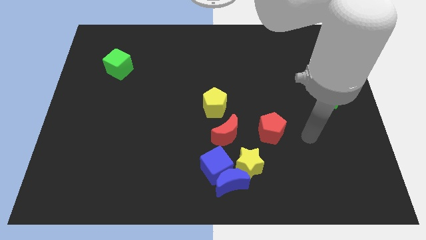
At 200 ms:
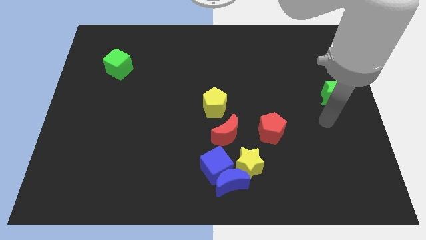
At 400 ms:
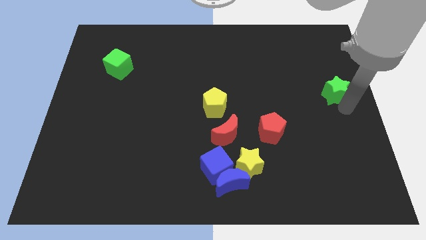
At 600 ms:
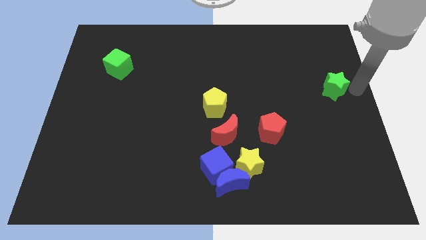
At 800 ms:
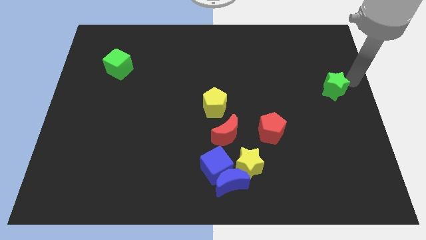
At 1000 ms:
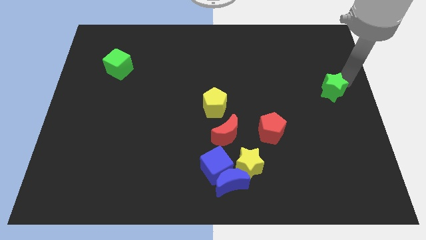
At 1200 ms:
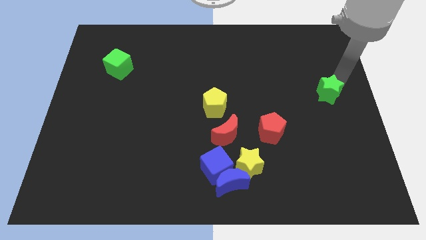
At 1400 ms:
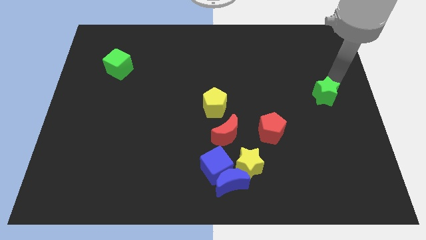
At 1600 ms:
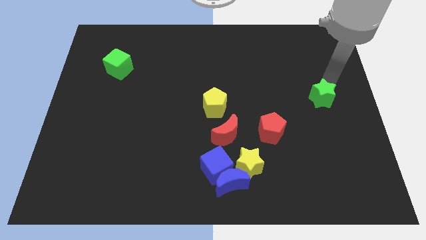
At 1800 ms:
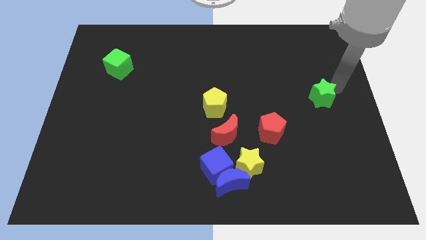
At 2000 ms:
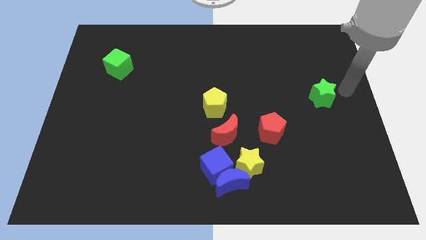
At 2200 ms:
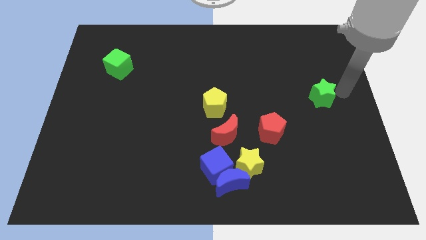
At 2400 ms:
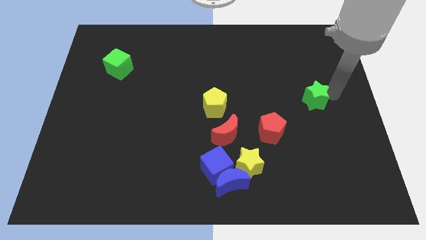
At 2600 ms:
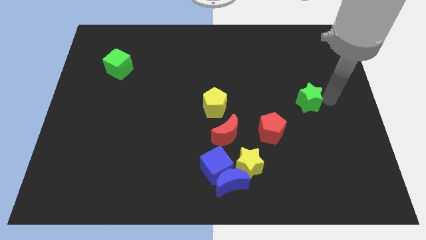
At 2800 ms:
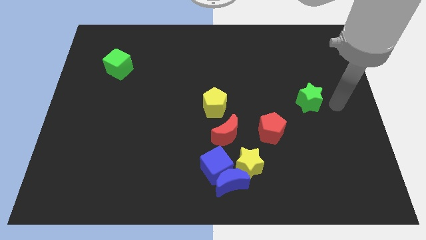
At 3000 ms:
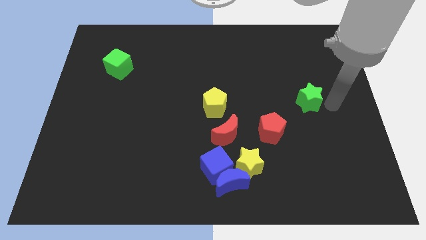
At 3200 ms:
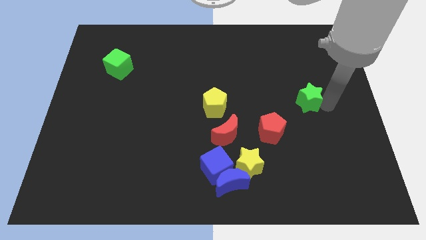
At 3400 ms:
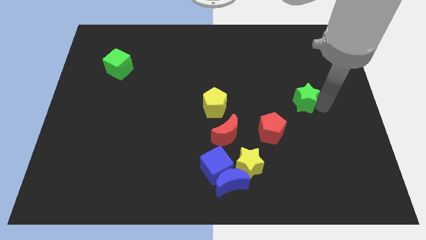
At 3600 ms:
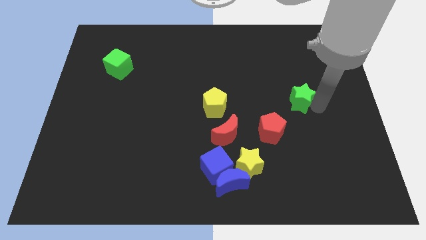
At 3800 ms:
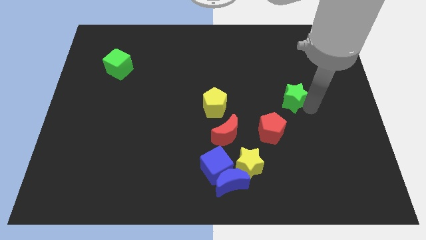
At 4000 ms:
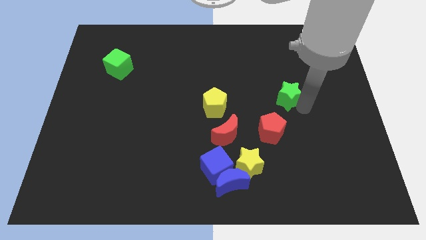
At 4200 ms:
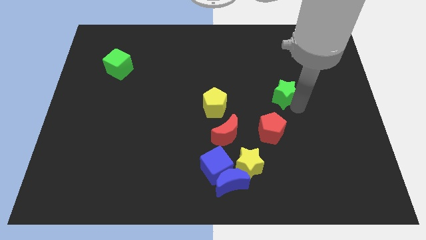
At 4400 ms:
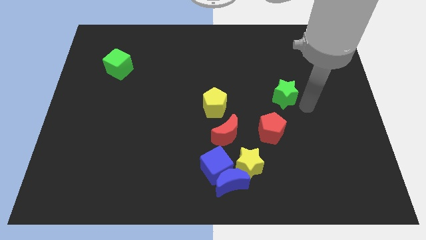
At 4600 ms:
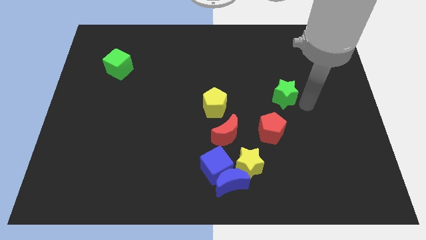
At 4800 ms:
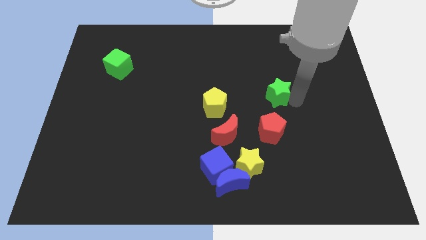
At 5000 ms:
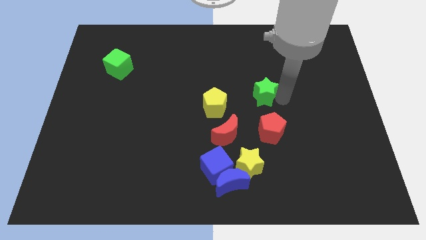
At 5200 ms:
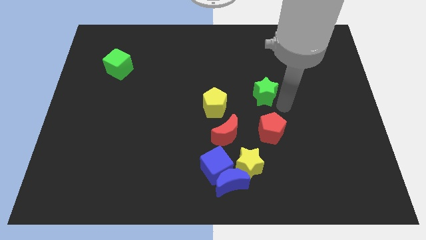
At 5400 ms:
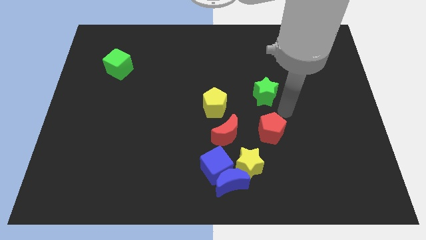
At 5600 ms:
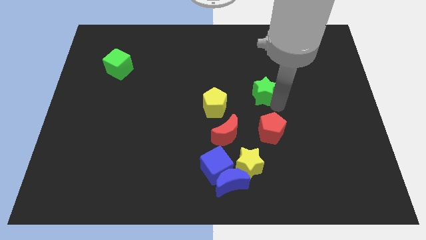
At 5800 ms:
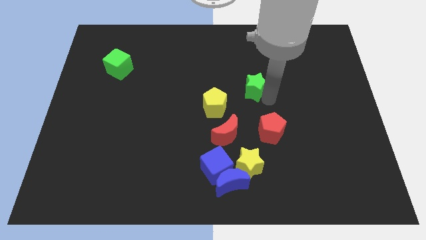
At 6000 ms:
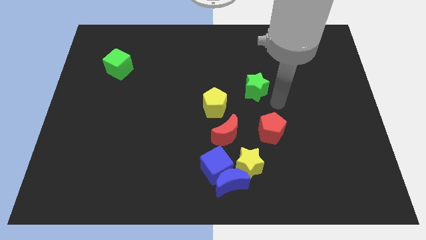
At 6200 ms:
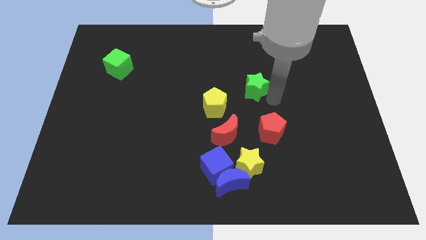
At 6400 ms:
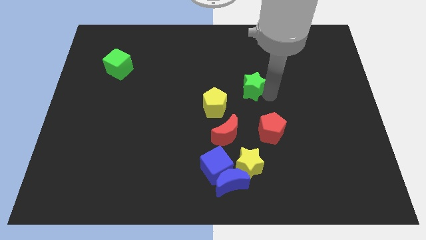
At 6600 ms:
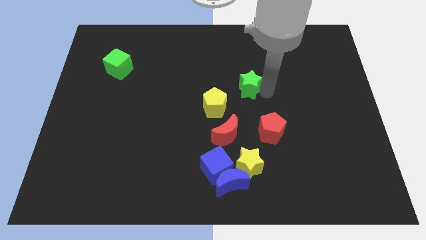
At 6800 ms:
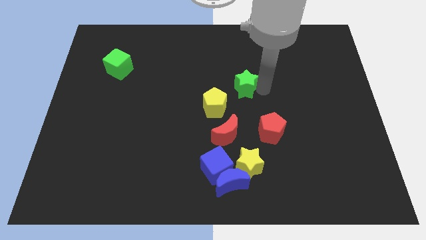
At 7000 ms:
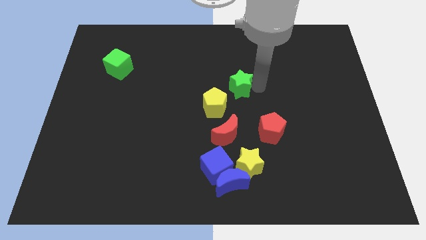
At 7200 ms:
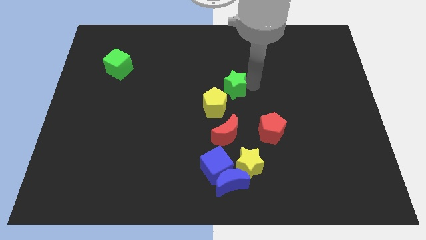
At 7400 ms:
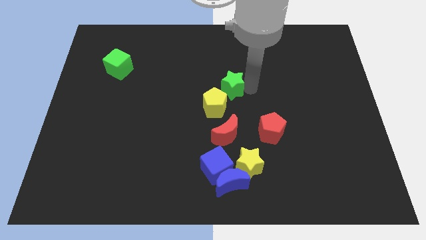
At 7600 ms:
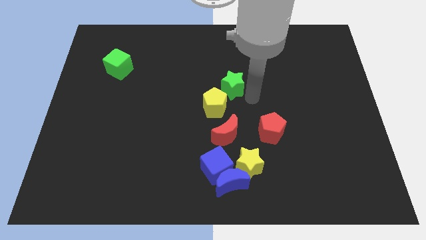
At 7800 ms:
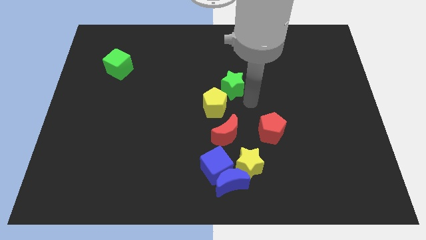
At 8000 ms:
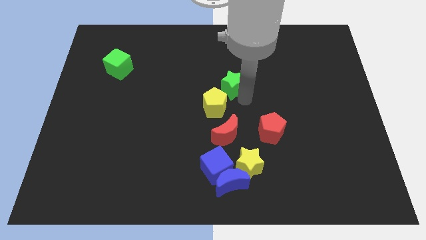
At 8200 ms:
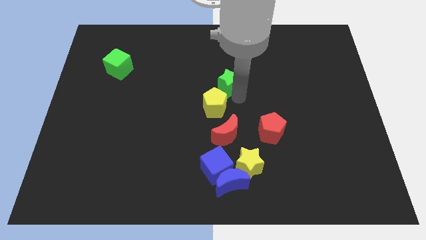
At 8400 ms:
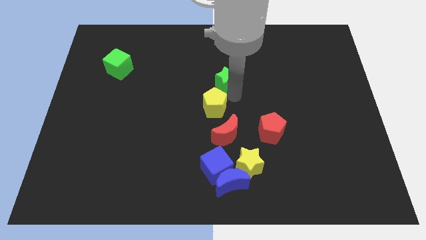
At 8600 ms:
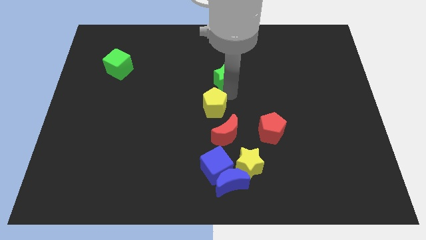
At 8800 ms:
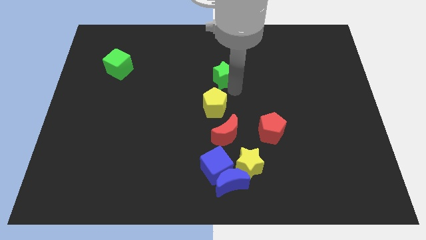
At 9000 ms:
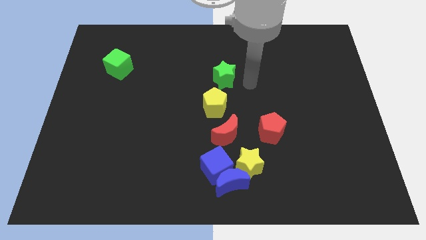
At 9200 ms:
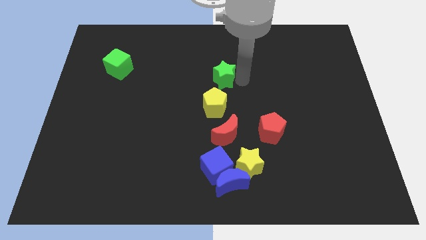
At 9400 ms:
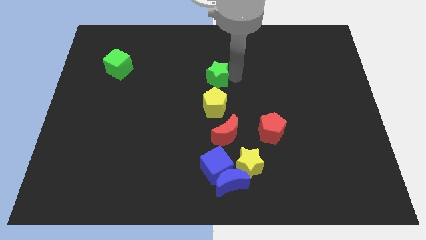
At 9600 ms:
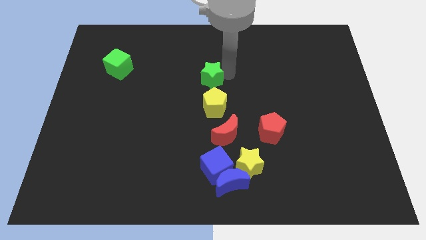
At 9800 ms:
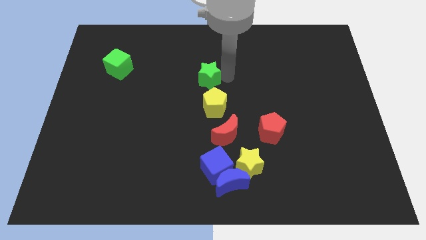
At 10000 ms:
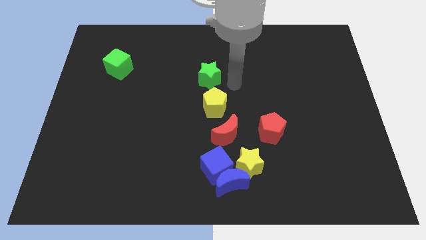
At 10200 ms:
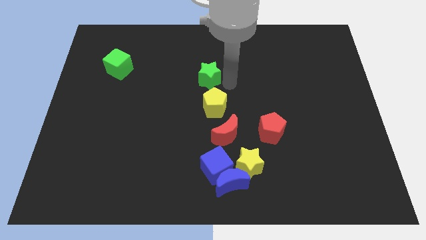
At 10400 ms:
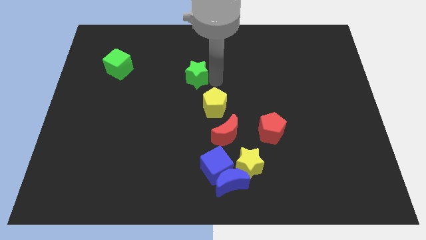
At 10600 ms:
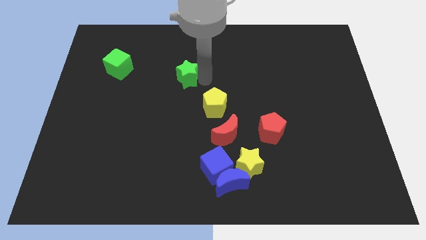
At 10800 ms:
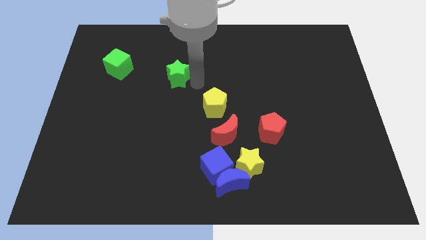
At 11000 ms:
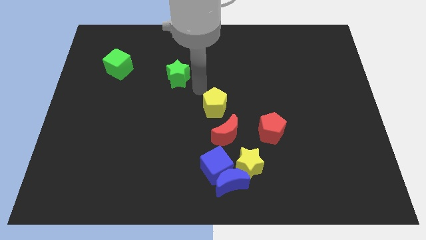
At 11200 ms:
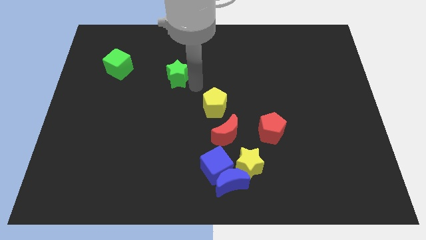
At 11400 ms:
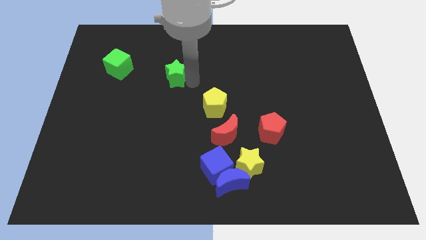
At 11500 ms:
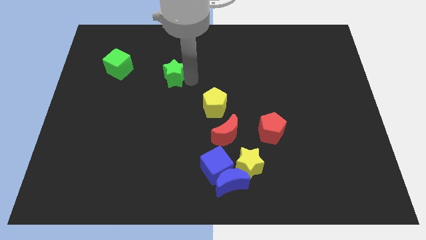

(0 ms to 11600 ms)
move the green star to the right side of the green cube

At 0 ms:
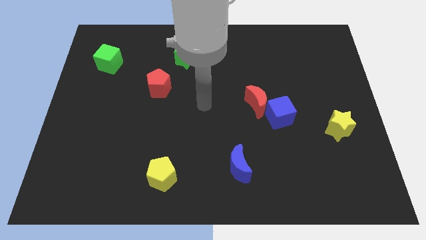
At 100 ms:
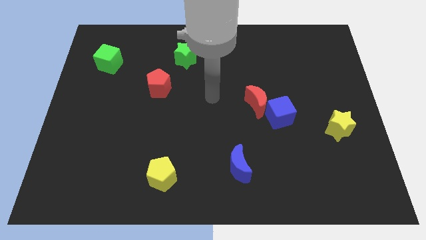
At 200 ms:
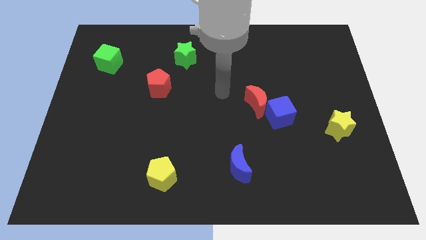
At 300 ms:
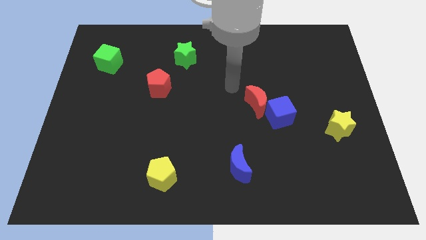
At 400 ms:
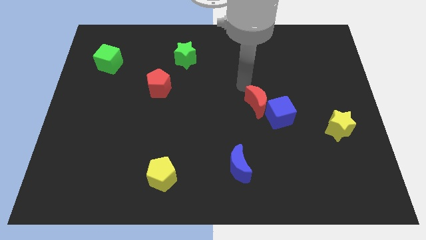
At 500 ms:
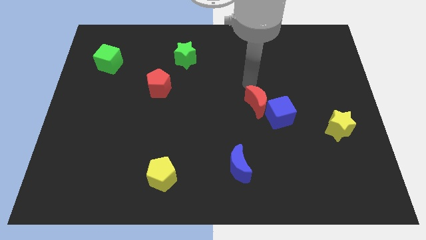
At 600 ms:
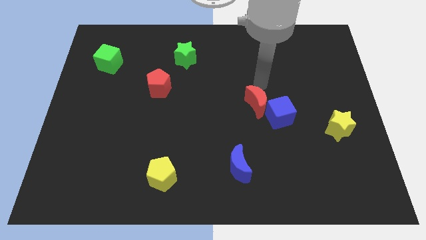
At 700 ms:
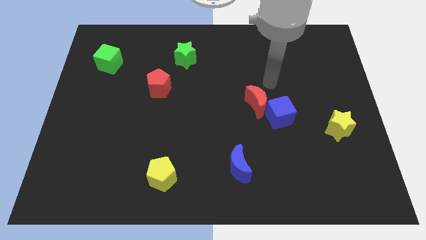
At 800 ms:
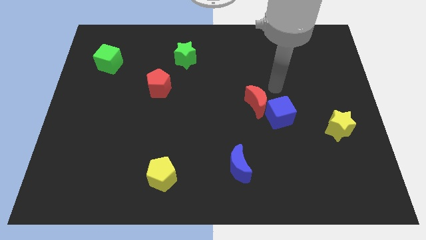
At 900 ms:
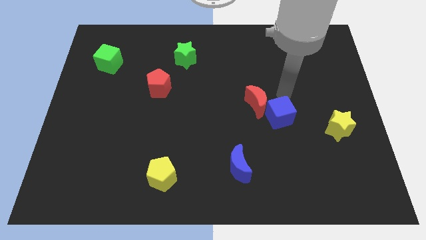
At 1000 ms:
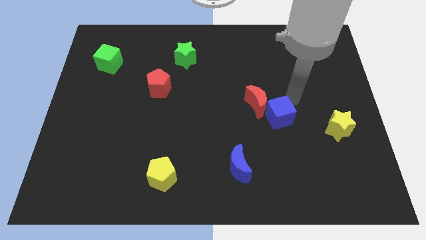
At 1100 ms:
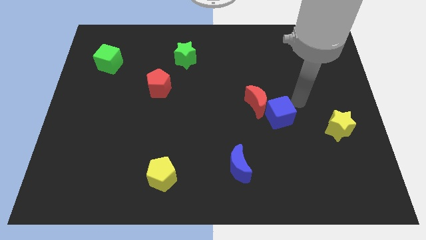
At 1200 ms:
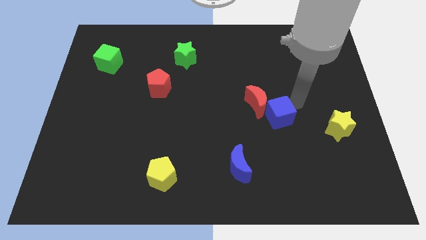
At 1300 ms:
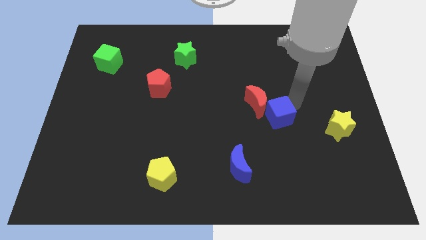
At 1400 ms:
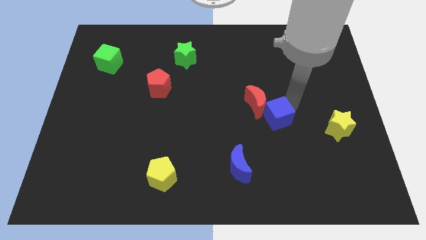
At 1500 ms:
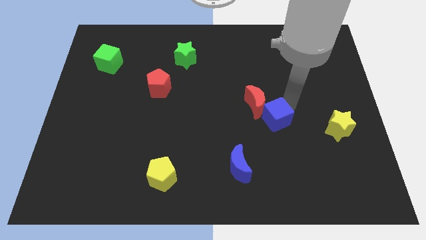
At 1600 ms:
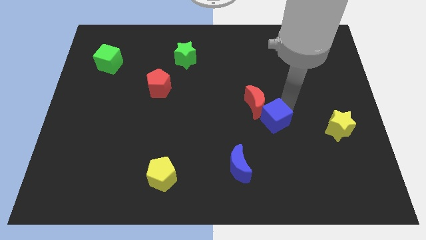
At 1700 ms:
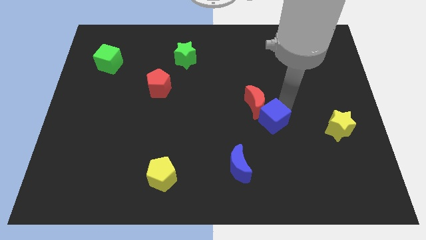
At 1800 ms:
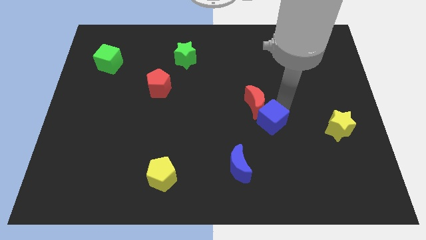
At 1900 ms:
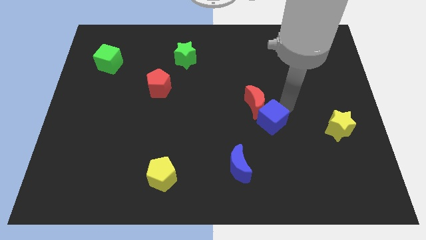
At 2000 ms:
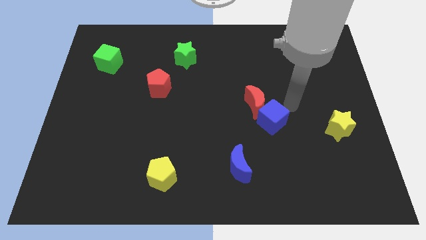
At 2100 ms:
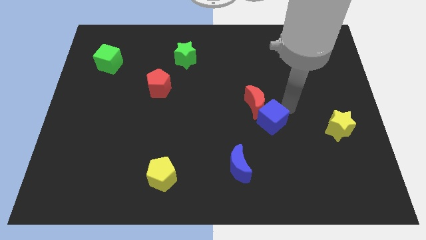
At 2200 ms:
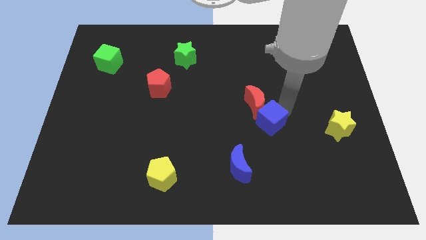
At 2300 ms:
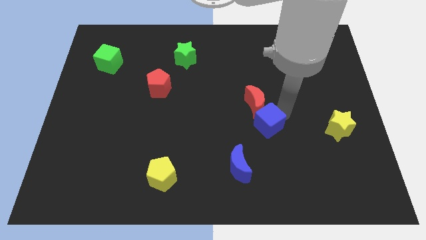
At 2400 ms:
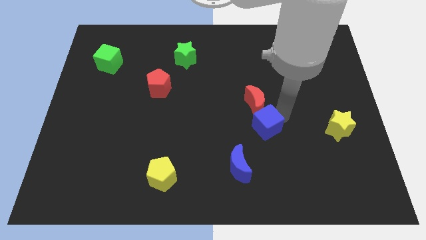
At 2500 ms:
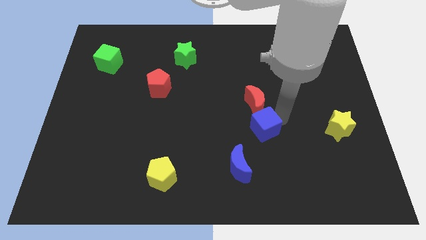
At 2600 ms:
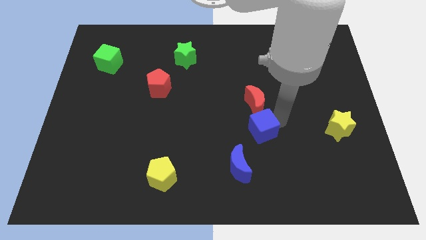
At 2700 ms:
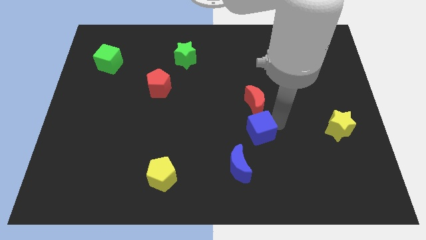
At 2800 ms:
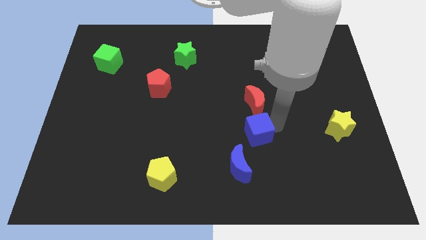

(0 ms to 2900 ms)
move the blue cube above the blue moon
